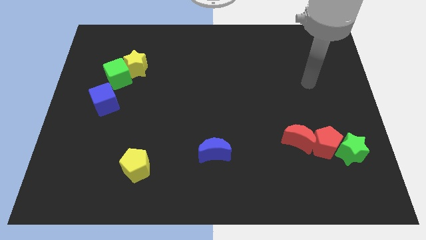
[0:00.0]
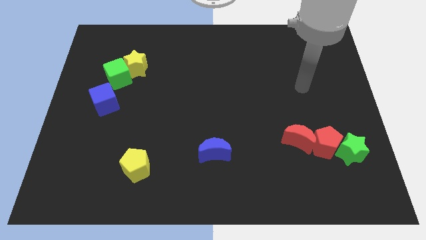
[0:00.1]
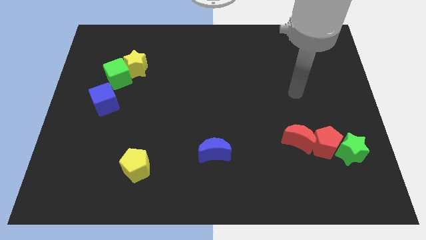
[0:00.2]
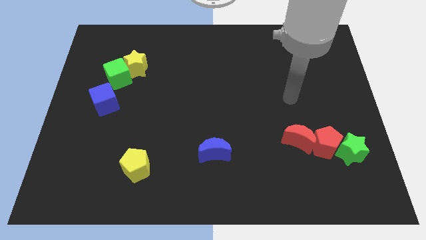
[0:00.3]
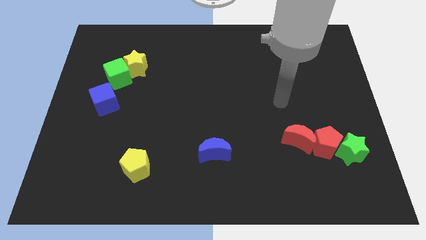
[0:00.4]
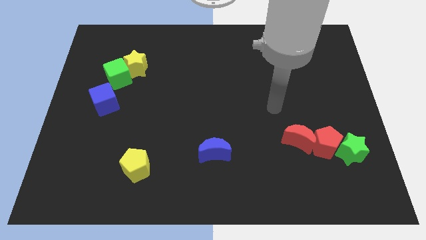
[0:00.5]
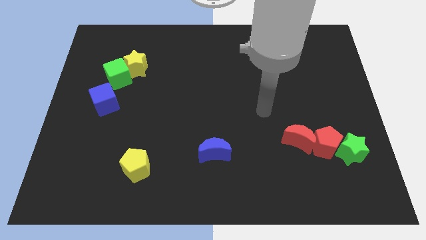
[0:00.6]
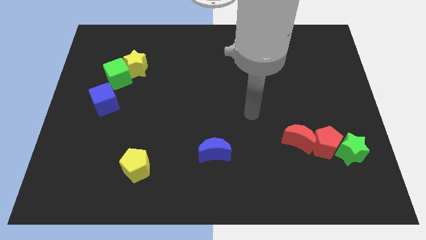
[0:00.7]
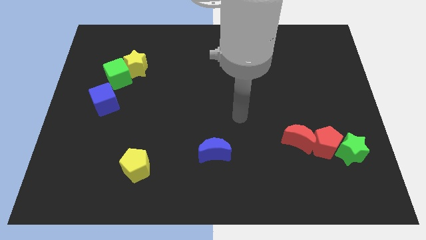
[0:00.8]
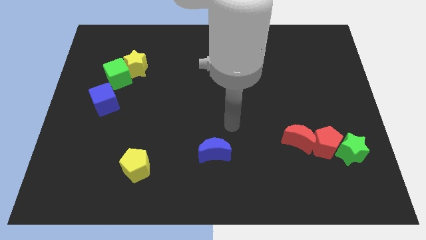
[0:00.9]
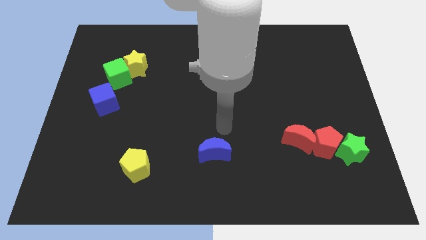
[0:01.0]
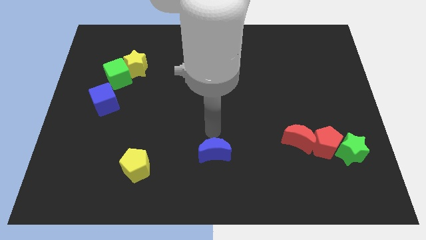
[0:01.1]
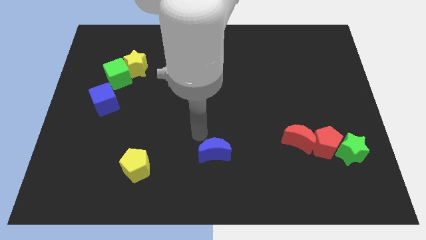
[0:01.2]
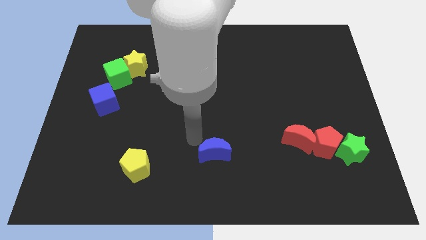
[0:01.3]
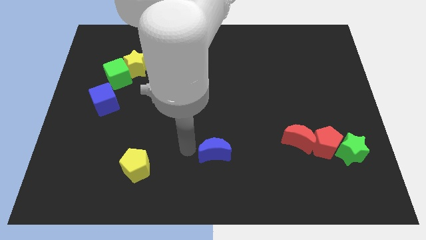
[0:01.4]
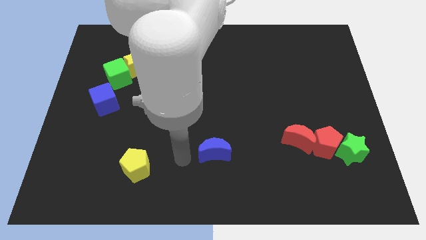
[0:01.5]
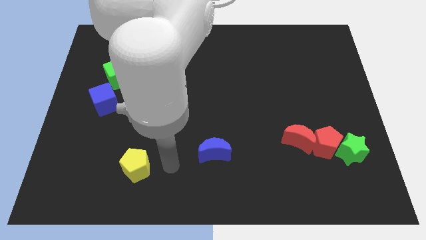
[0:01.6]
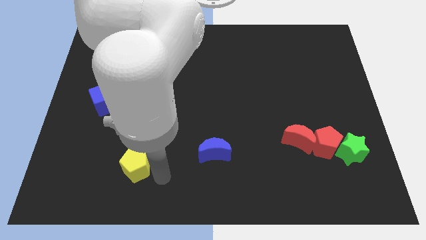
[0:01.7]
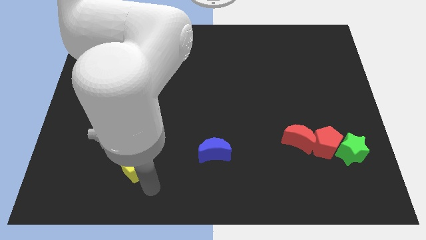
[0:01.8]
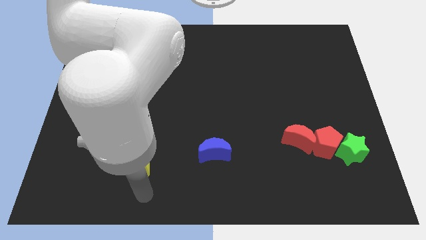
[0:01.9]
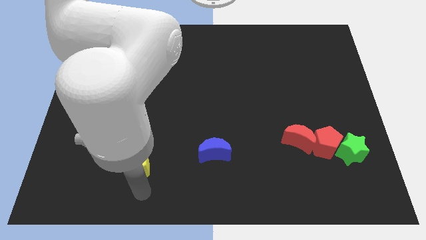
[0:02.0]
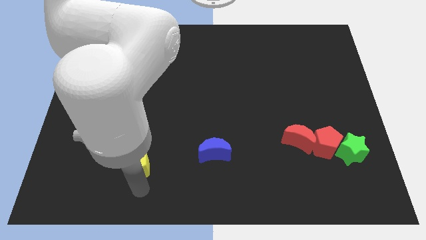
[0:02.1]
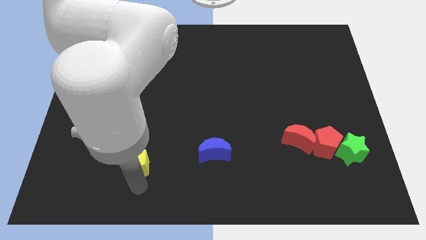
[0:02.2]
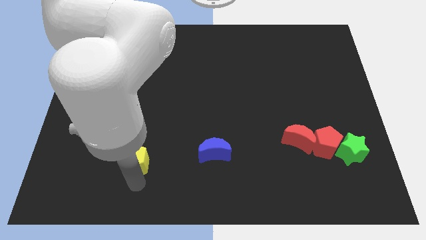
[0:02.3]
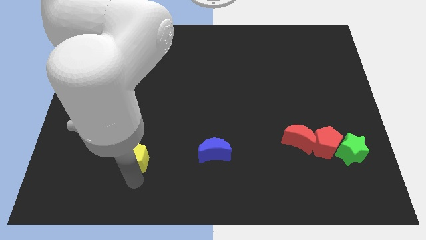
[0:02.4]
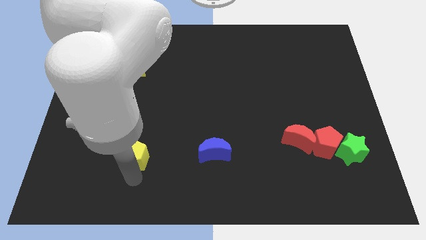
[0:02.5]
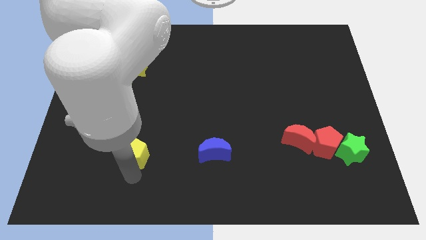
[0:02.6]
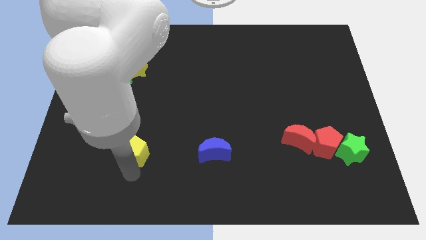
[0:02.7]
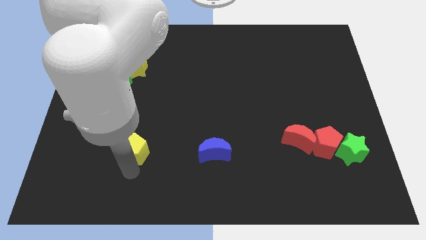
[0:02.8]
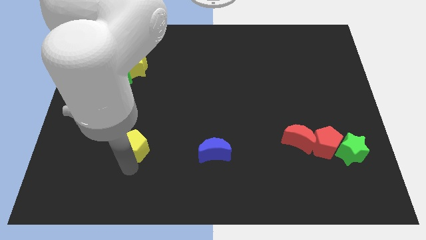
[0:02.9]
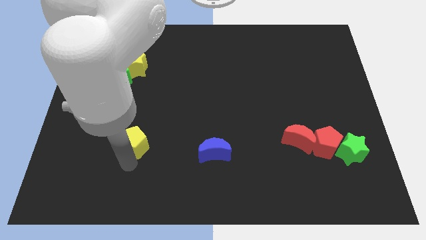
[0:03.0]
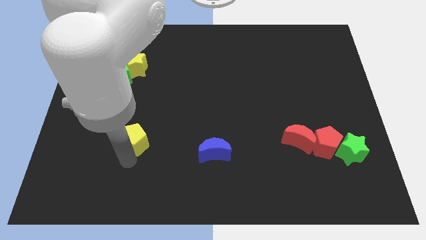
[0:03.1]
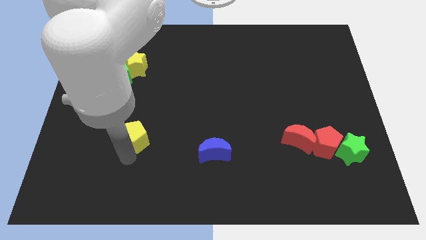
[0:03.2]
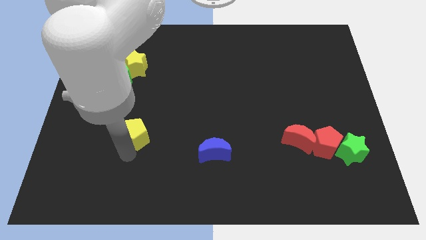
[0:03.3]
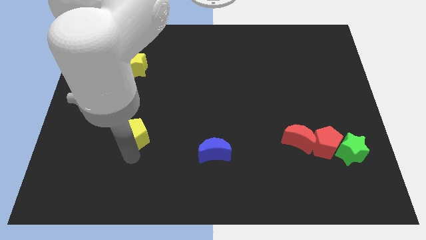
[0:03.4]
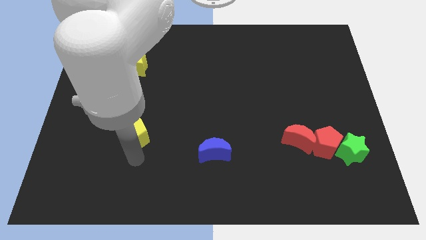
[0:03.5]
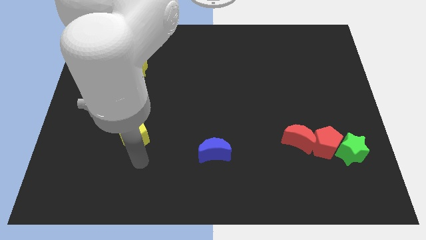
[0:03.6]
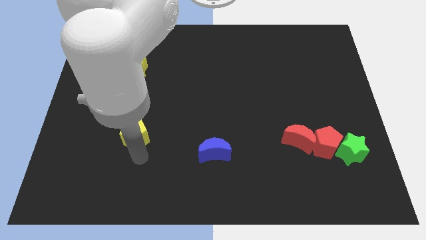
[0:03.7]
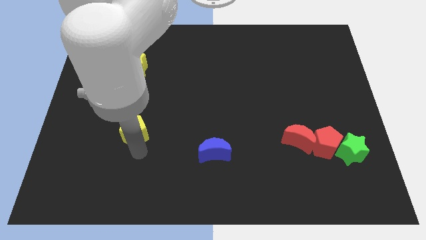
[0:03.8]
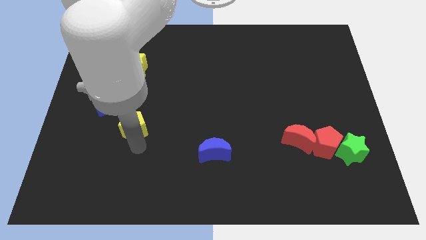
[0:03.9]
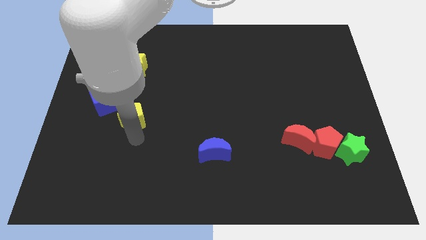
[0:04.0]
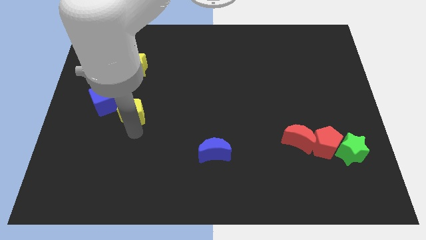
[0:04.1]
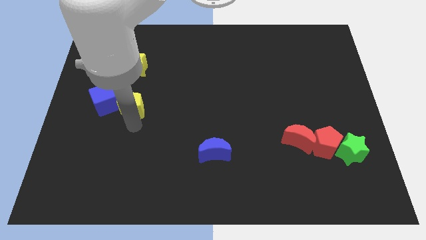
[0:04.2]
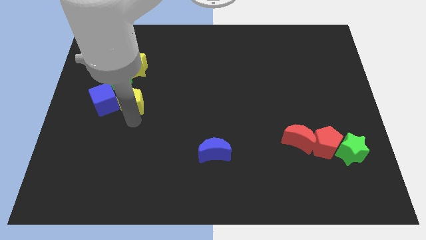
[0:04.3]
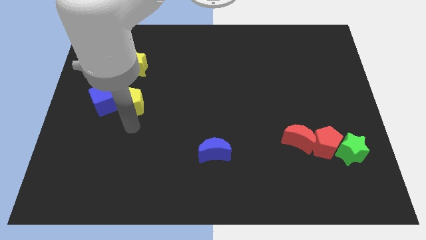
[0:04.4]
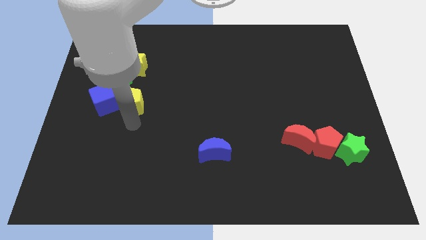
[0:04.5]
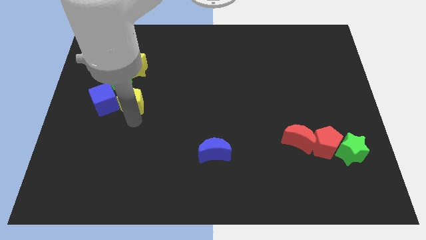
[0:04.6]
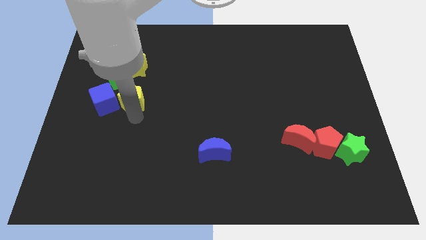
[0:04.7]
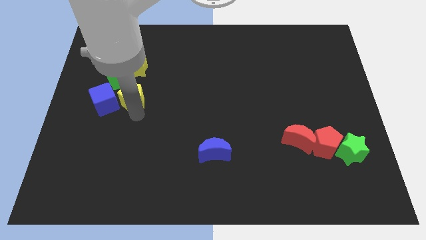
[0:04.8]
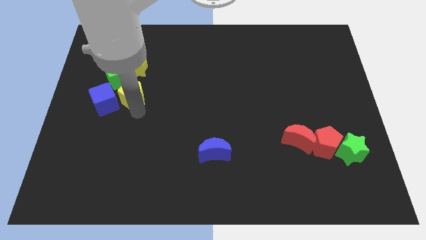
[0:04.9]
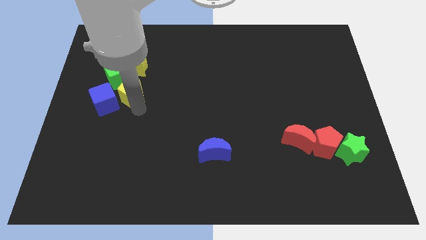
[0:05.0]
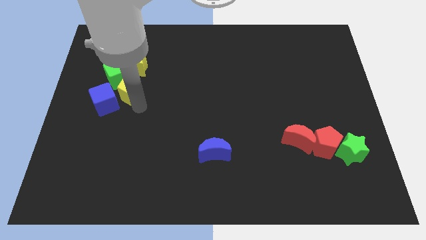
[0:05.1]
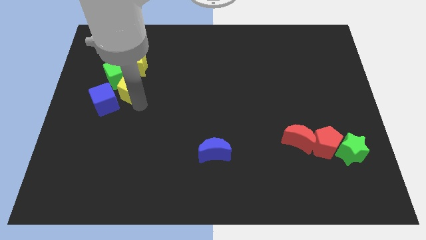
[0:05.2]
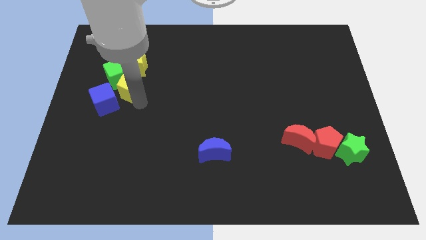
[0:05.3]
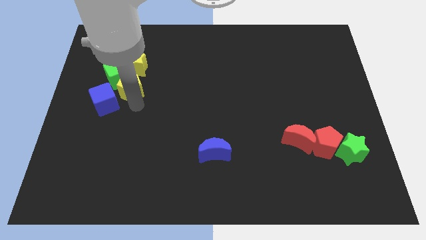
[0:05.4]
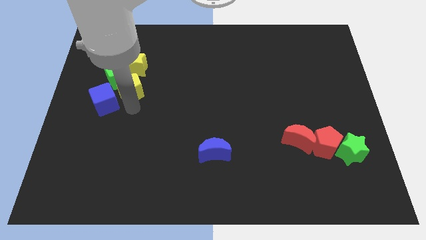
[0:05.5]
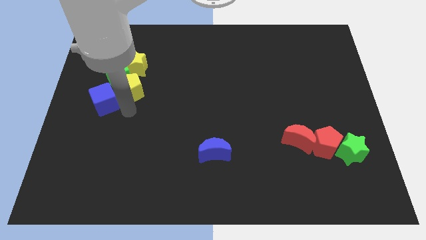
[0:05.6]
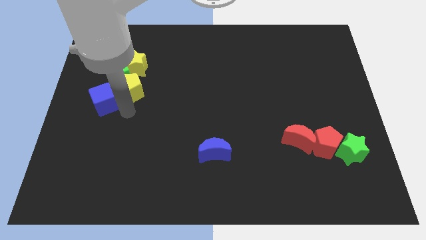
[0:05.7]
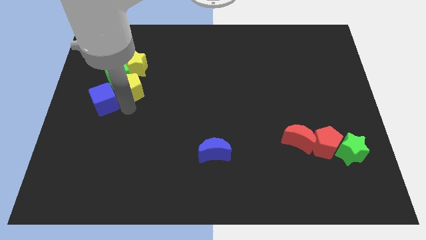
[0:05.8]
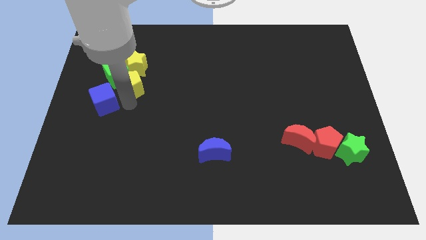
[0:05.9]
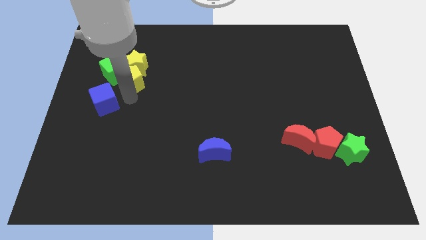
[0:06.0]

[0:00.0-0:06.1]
slide the yellow pentagon close to the yellow star

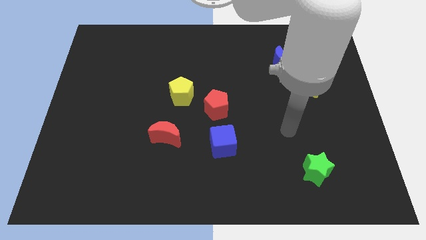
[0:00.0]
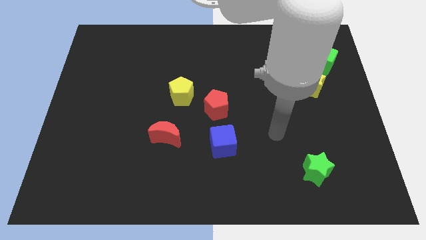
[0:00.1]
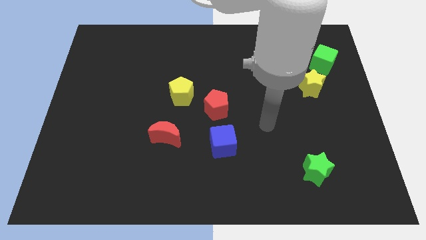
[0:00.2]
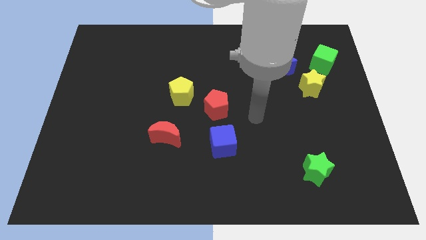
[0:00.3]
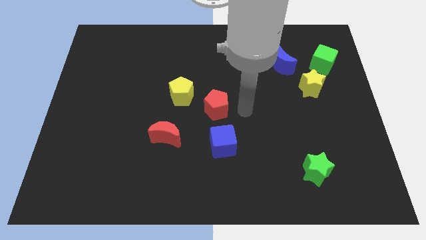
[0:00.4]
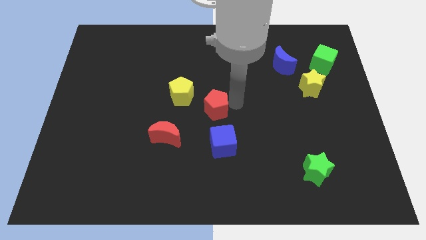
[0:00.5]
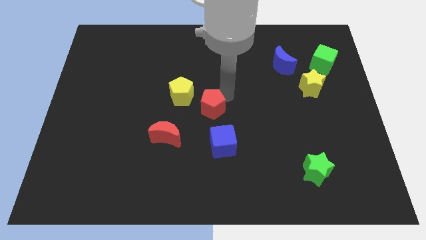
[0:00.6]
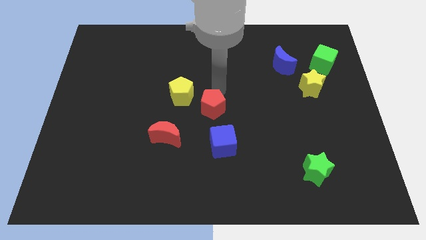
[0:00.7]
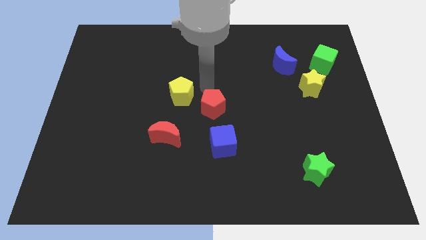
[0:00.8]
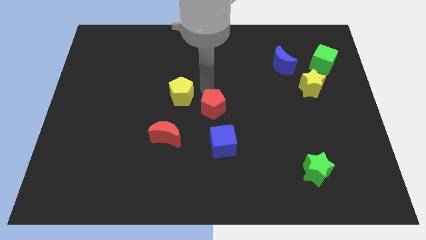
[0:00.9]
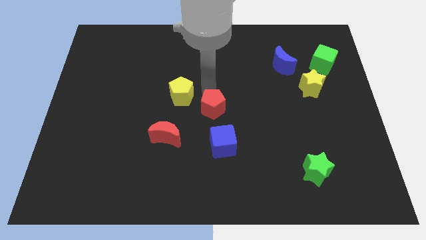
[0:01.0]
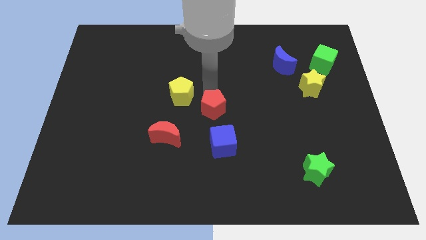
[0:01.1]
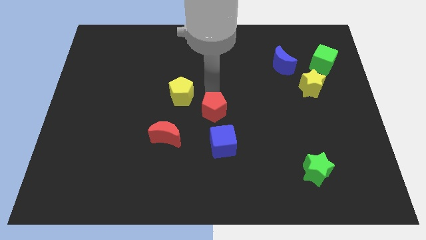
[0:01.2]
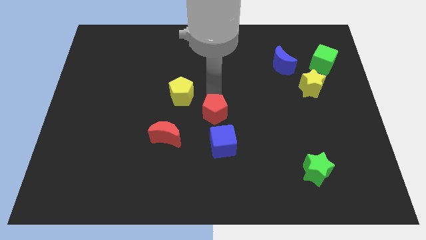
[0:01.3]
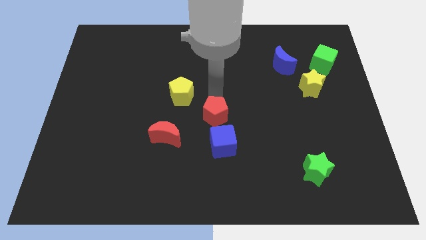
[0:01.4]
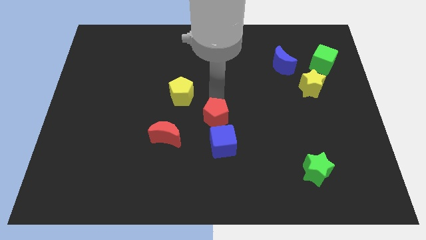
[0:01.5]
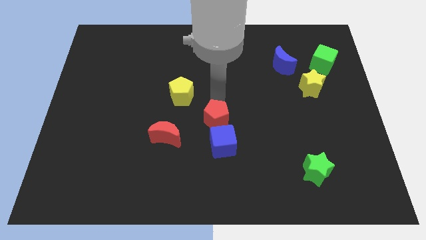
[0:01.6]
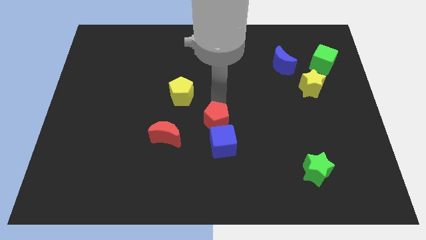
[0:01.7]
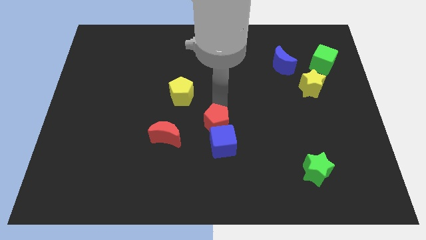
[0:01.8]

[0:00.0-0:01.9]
push the red pentagon to the blue cube
